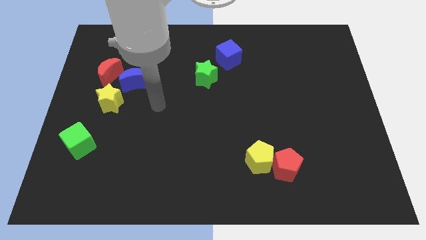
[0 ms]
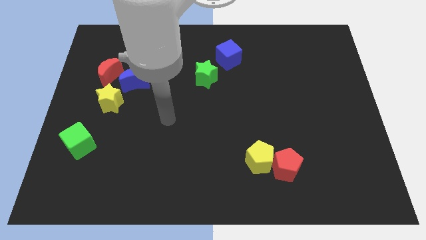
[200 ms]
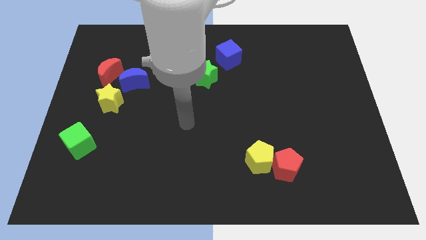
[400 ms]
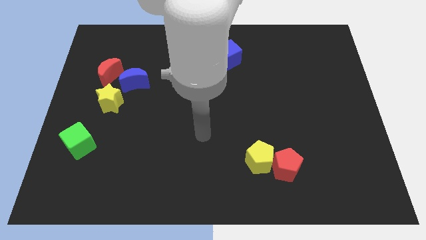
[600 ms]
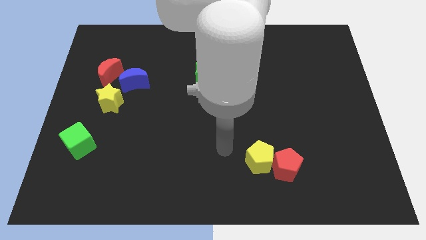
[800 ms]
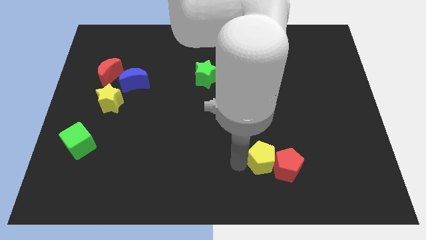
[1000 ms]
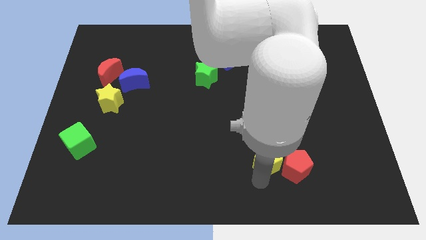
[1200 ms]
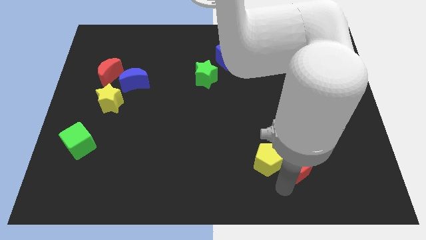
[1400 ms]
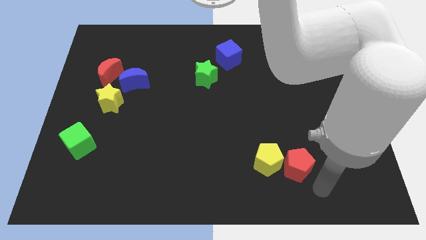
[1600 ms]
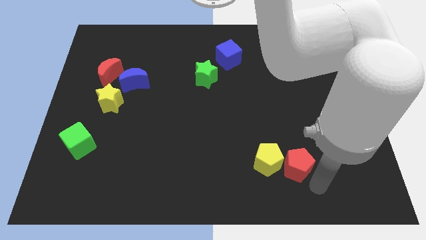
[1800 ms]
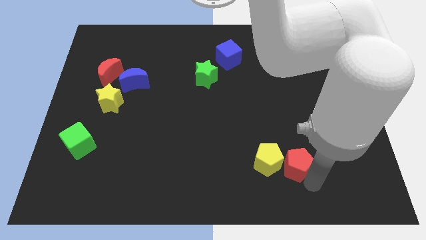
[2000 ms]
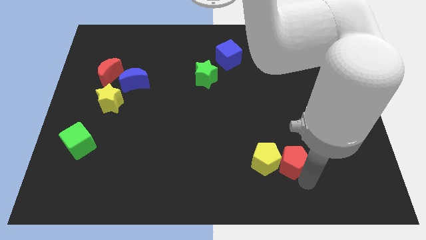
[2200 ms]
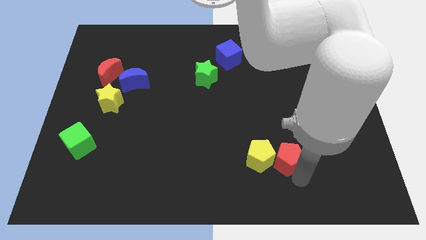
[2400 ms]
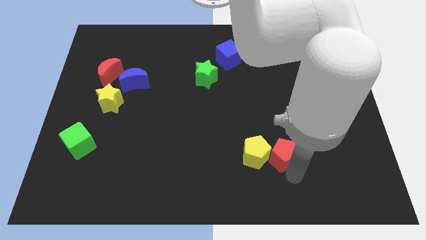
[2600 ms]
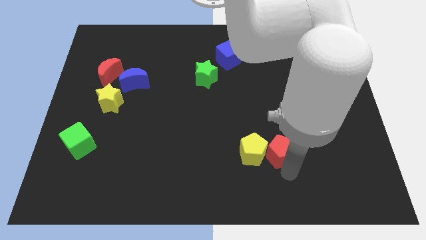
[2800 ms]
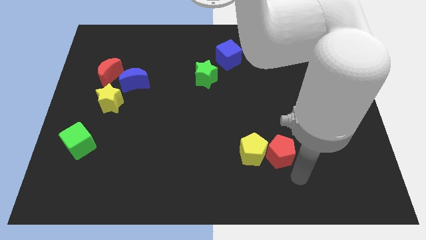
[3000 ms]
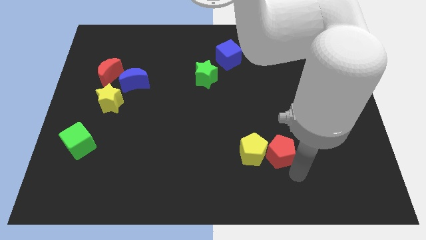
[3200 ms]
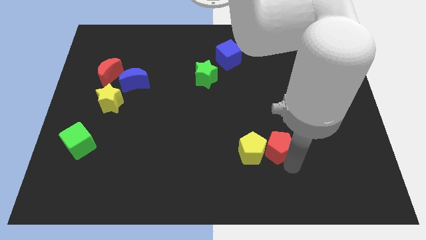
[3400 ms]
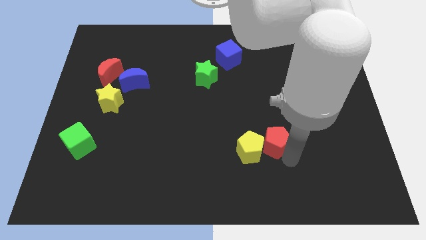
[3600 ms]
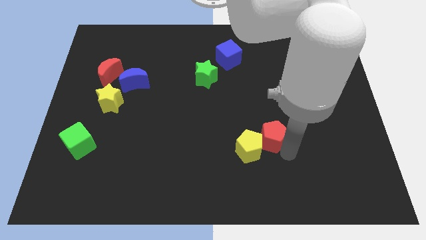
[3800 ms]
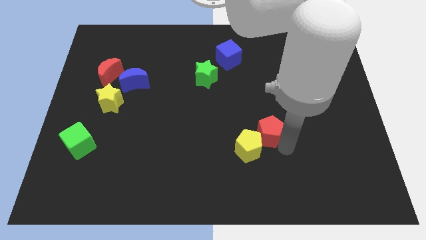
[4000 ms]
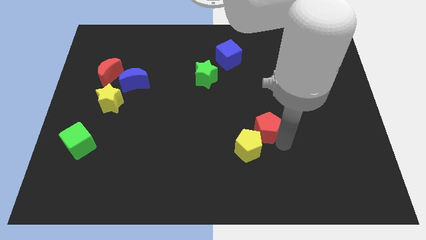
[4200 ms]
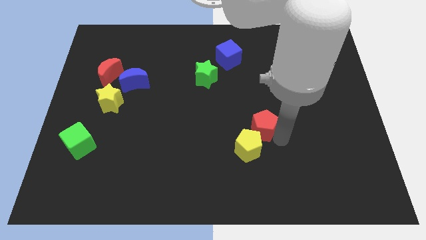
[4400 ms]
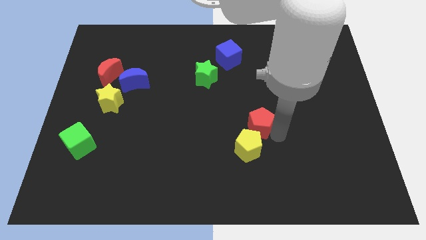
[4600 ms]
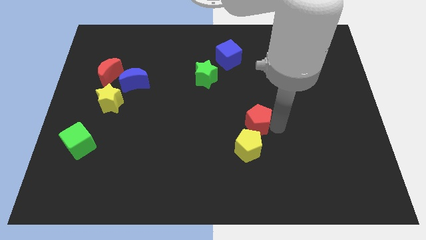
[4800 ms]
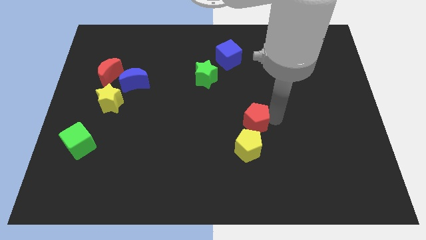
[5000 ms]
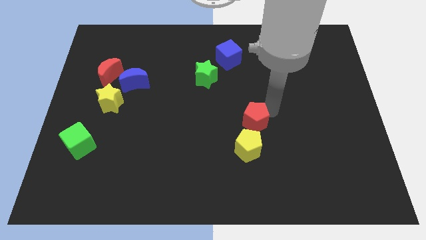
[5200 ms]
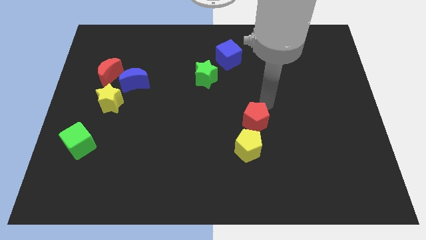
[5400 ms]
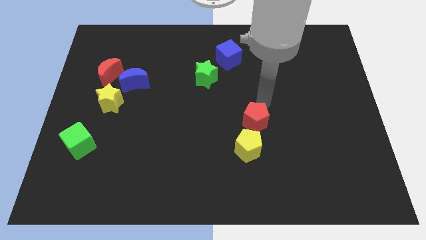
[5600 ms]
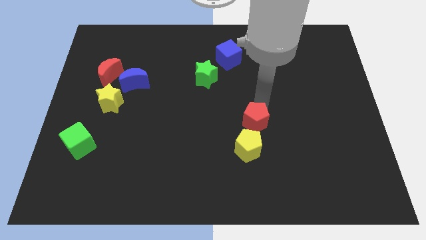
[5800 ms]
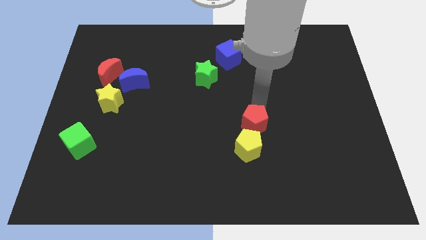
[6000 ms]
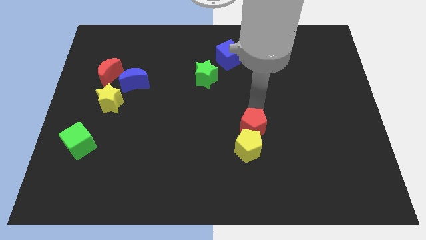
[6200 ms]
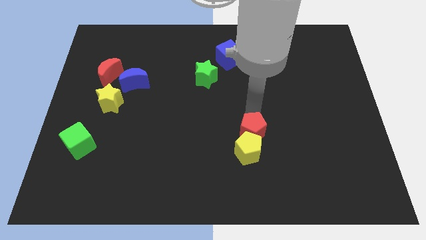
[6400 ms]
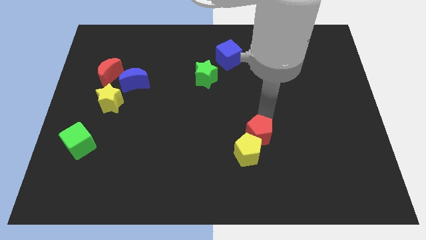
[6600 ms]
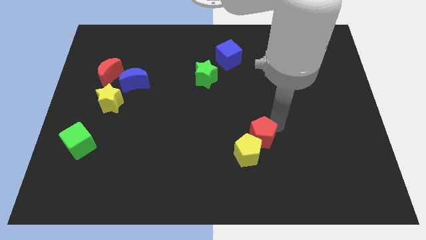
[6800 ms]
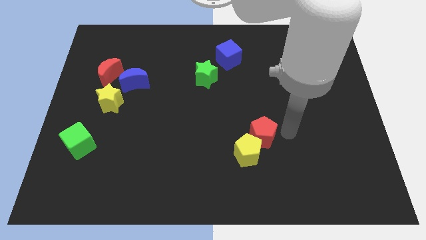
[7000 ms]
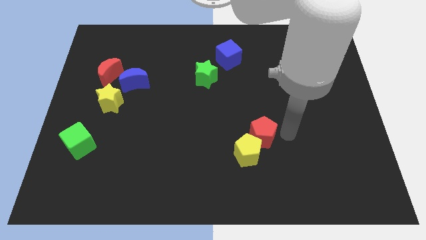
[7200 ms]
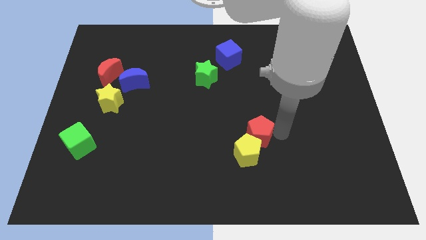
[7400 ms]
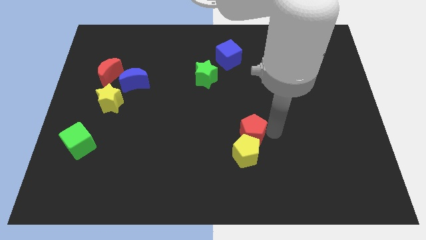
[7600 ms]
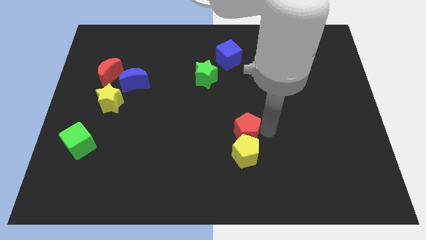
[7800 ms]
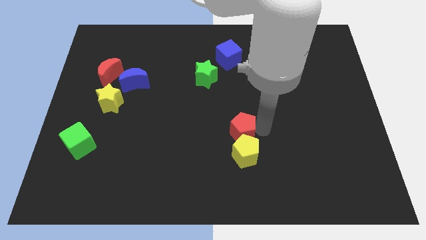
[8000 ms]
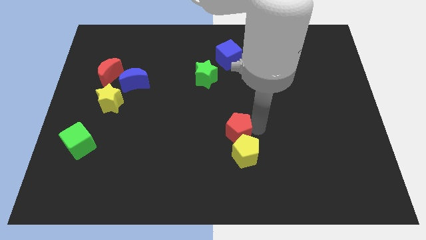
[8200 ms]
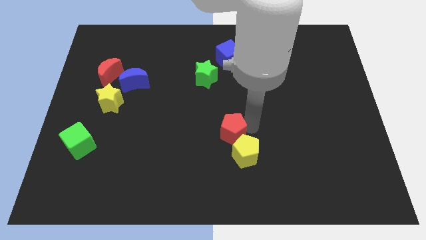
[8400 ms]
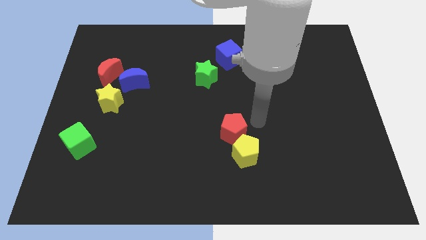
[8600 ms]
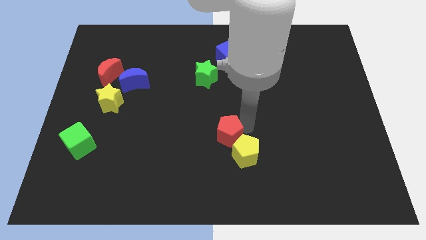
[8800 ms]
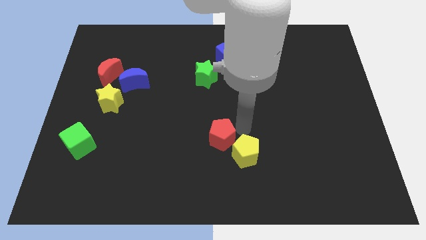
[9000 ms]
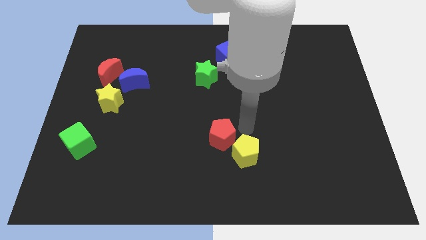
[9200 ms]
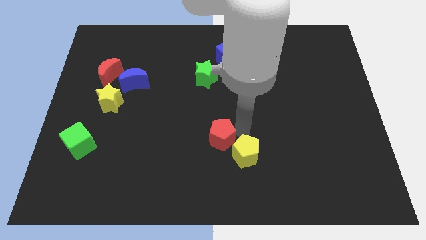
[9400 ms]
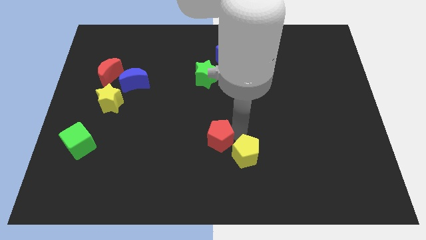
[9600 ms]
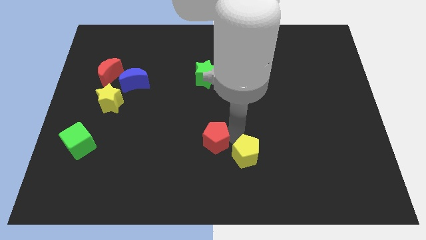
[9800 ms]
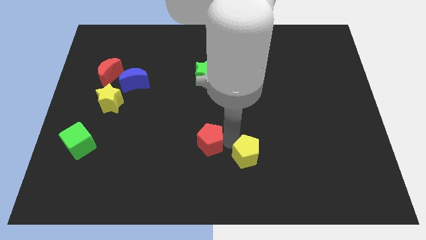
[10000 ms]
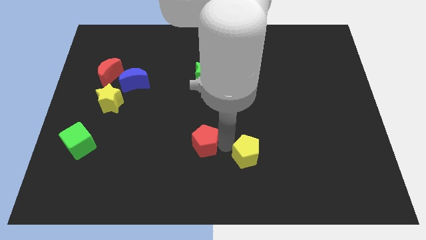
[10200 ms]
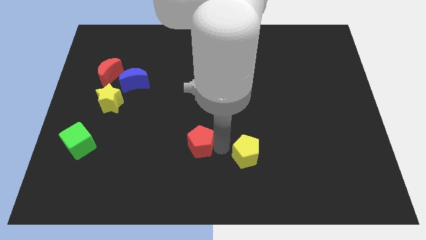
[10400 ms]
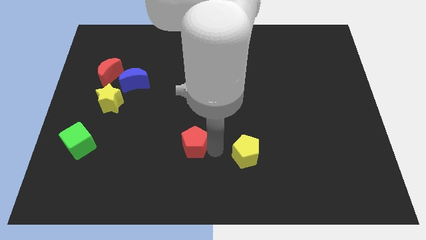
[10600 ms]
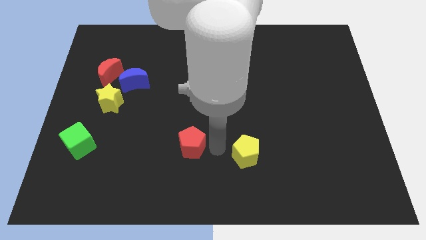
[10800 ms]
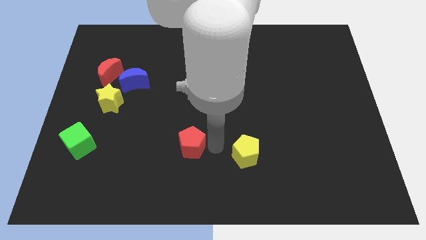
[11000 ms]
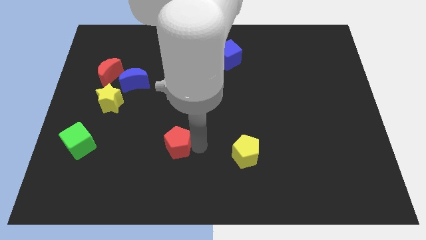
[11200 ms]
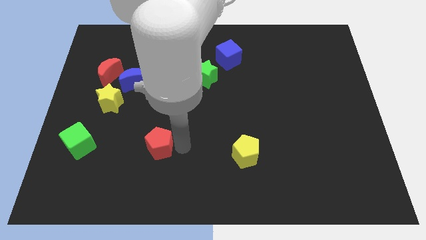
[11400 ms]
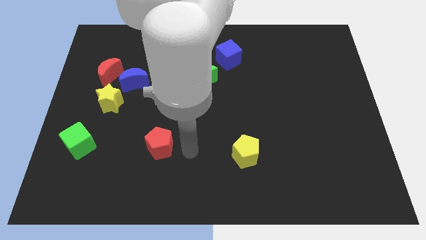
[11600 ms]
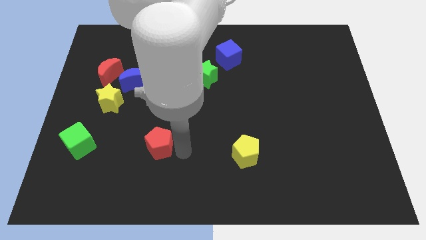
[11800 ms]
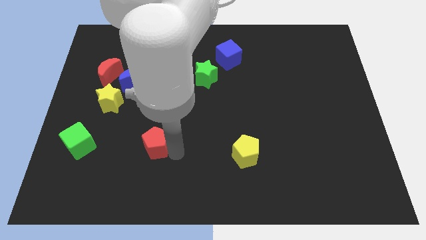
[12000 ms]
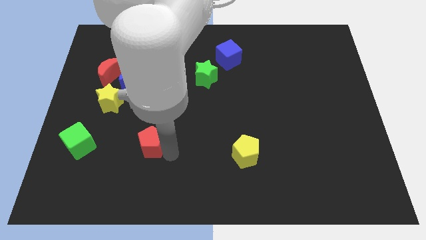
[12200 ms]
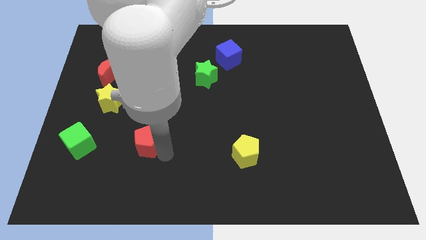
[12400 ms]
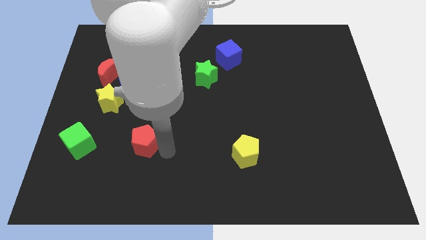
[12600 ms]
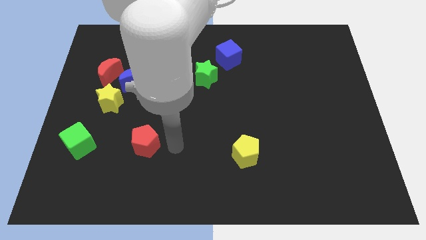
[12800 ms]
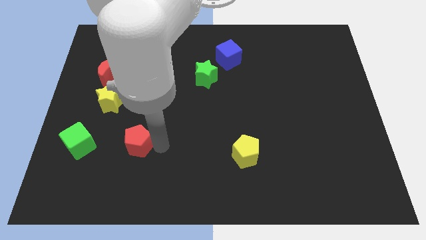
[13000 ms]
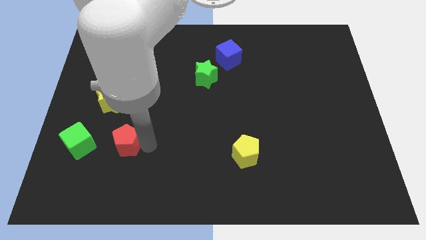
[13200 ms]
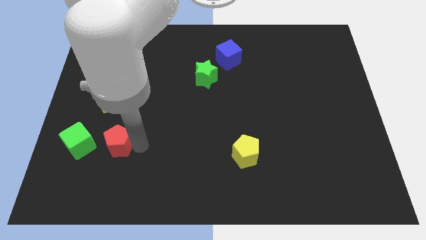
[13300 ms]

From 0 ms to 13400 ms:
put the red pentagon to the bottom of the yellow star

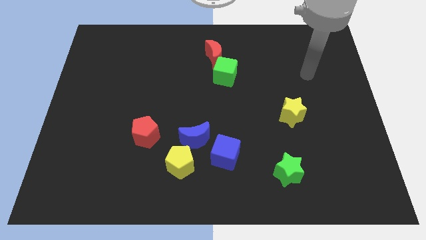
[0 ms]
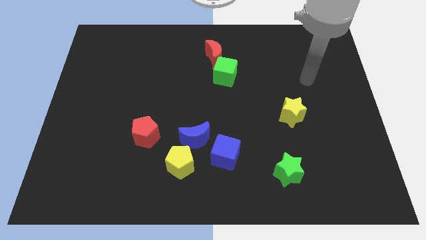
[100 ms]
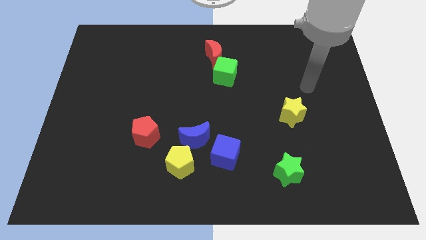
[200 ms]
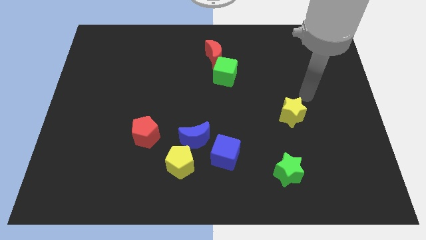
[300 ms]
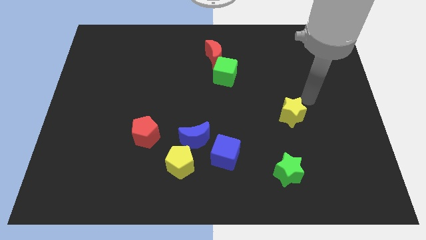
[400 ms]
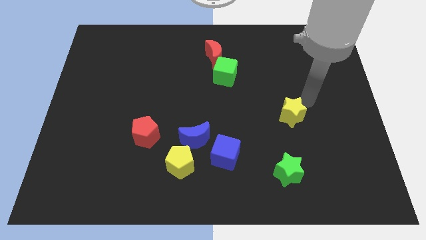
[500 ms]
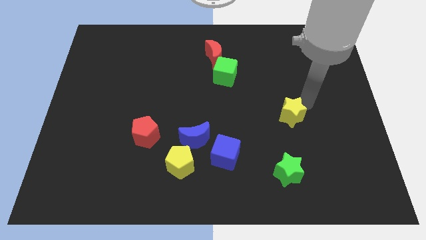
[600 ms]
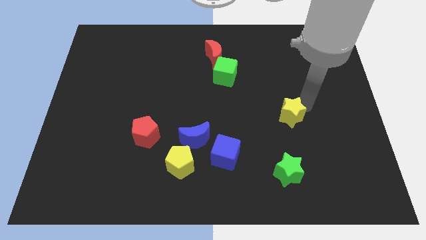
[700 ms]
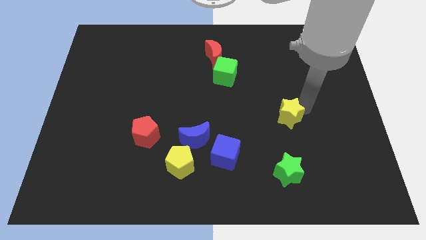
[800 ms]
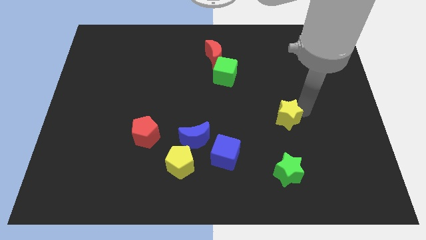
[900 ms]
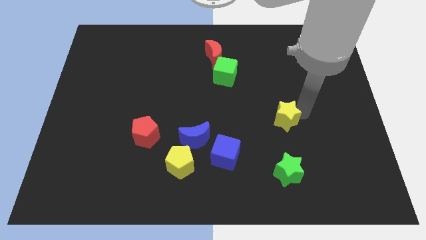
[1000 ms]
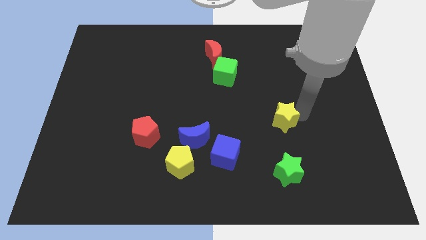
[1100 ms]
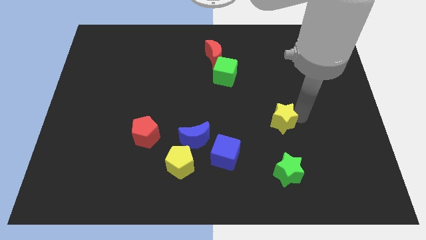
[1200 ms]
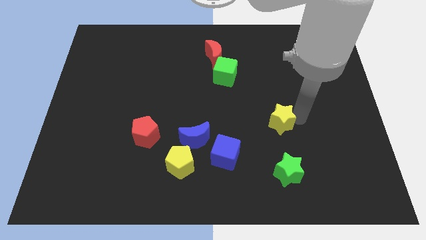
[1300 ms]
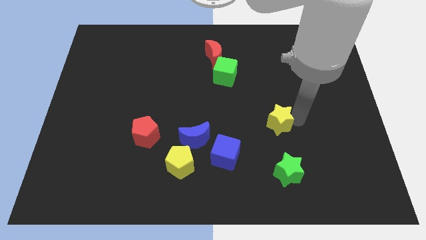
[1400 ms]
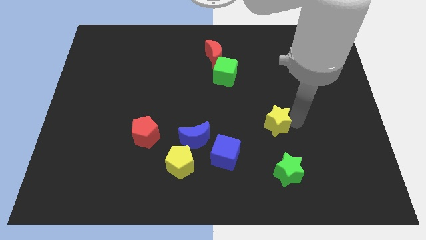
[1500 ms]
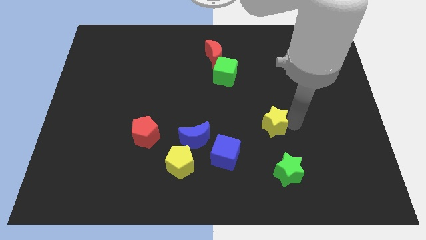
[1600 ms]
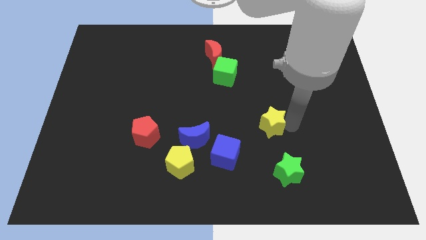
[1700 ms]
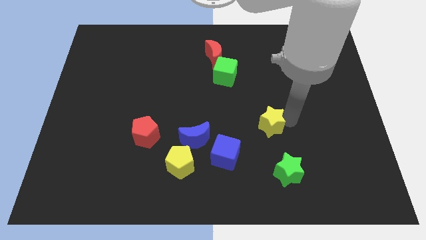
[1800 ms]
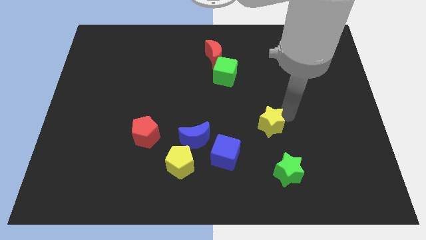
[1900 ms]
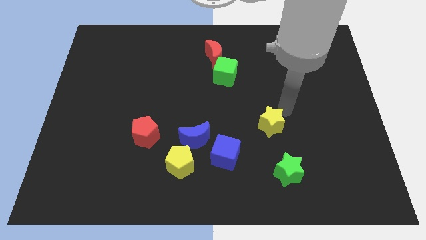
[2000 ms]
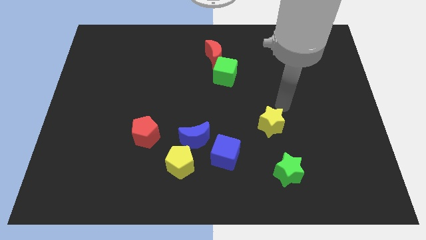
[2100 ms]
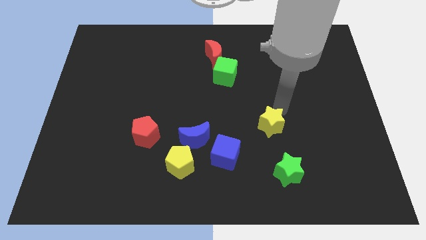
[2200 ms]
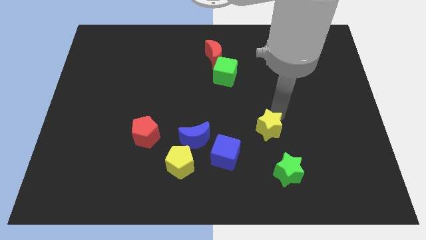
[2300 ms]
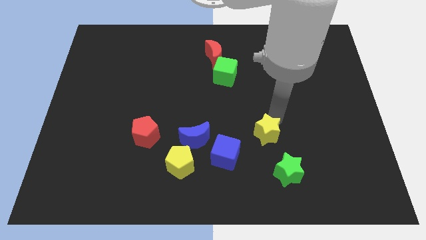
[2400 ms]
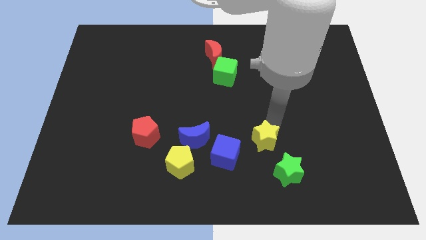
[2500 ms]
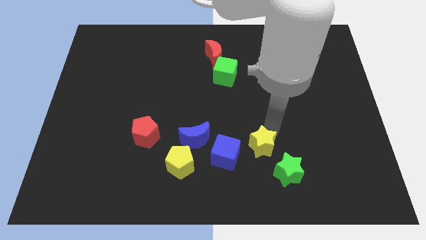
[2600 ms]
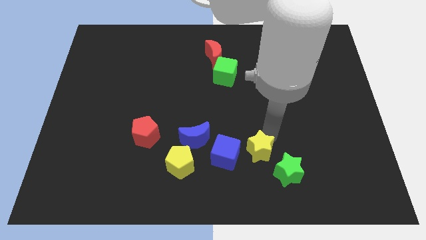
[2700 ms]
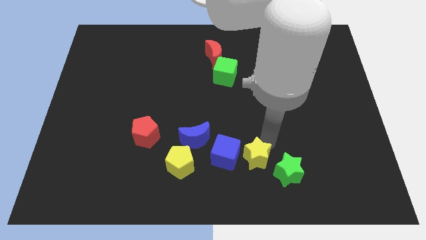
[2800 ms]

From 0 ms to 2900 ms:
move the yellow star just right of the yellow pentagon
